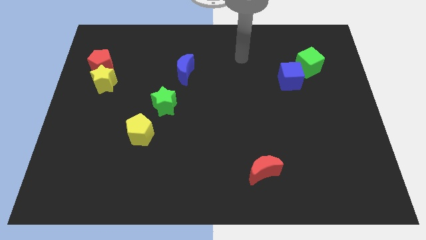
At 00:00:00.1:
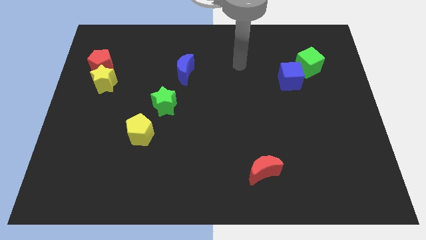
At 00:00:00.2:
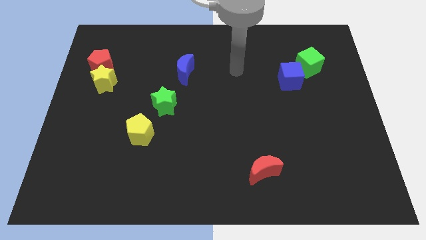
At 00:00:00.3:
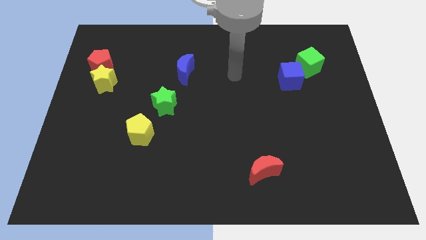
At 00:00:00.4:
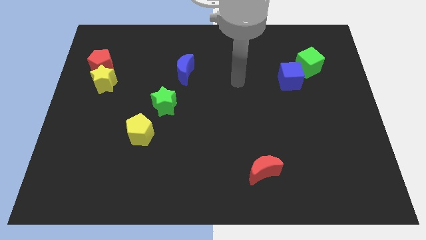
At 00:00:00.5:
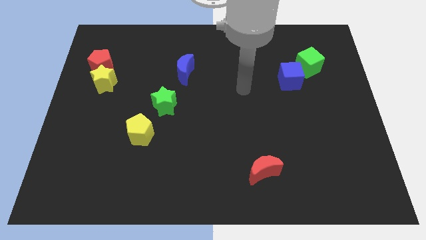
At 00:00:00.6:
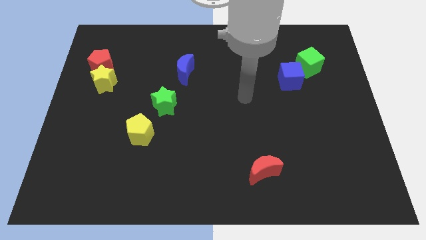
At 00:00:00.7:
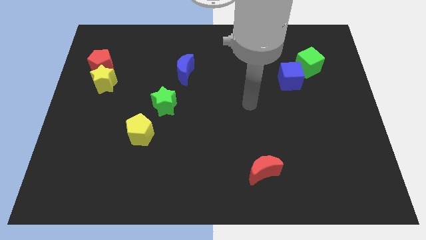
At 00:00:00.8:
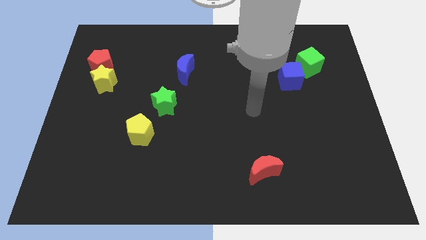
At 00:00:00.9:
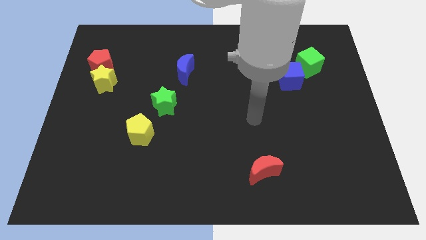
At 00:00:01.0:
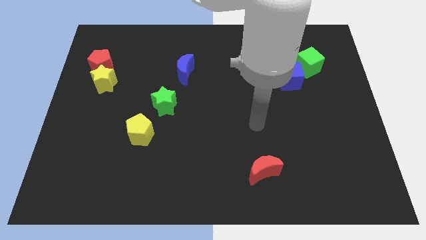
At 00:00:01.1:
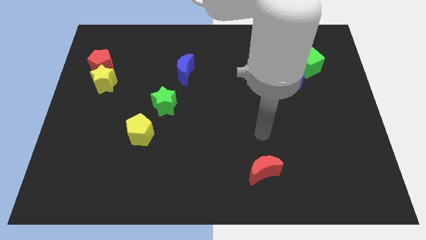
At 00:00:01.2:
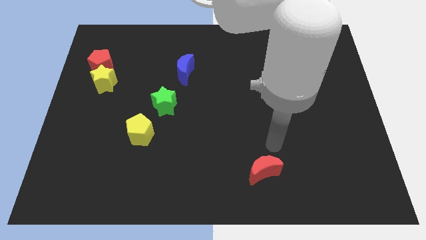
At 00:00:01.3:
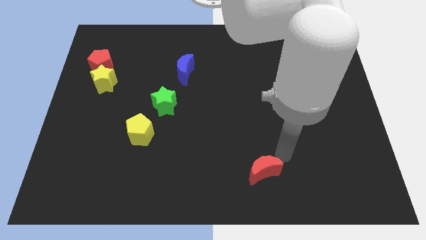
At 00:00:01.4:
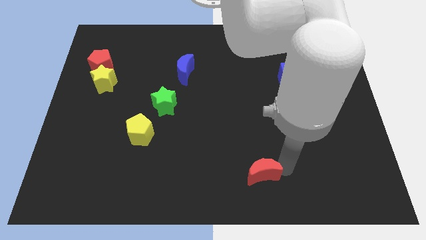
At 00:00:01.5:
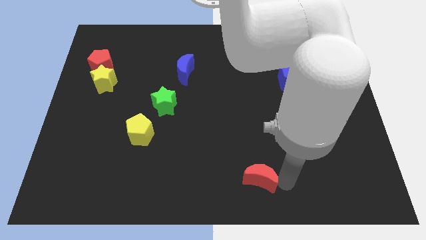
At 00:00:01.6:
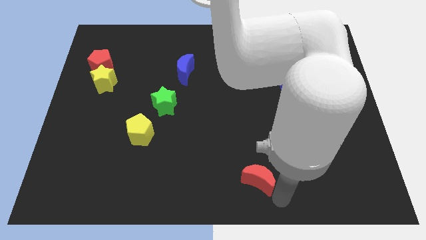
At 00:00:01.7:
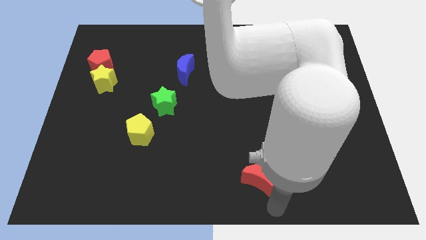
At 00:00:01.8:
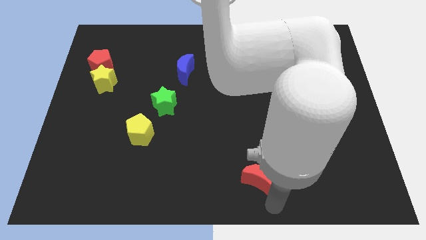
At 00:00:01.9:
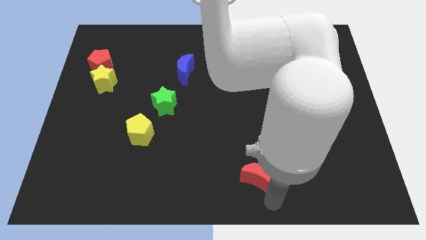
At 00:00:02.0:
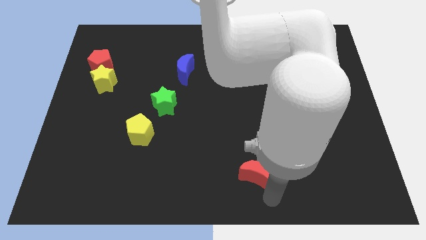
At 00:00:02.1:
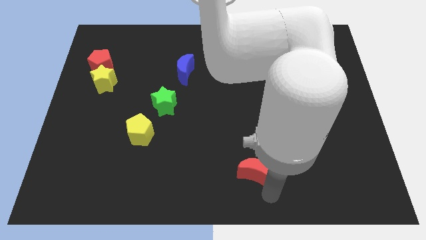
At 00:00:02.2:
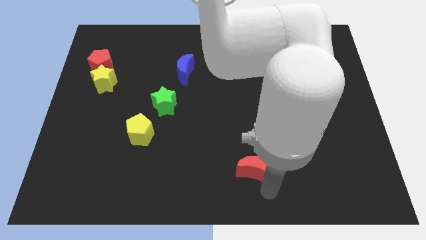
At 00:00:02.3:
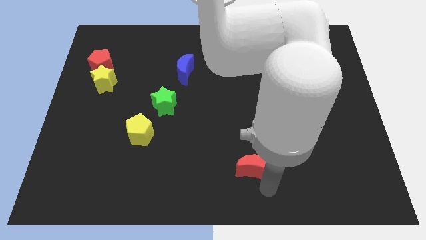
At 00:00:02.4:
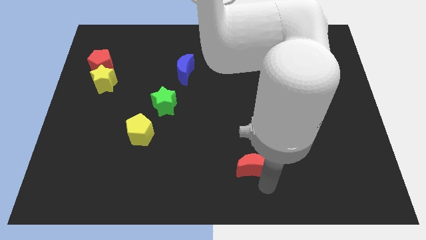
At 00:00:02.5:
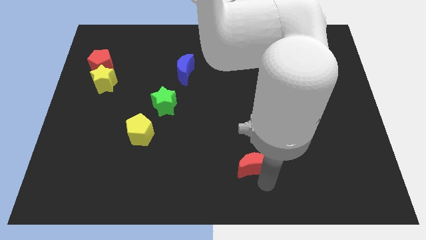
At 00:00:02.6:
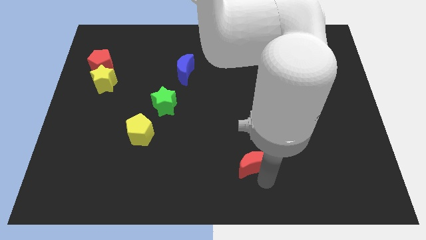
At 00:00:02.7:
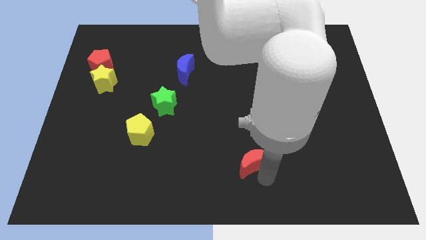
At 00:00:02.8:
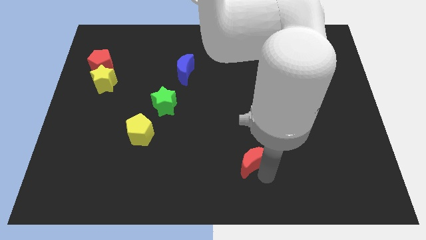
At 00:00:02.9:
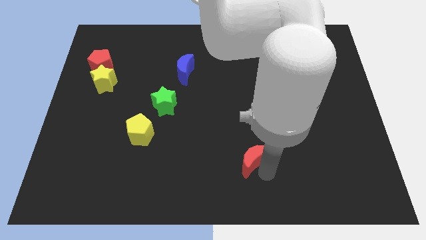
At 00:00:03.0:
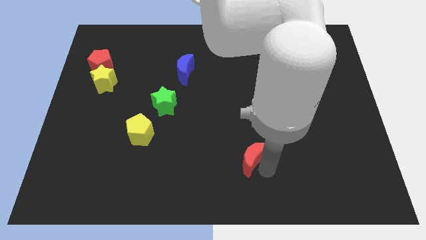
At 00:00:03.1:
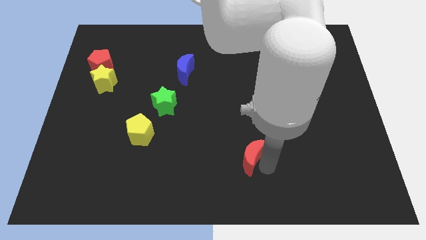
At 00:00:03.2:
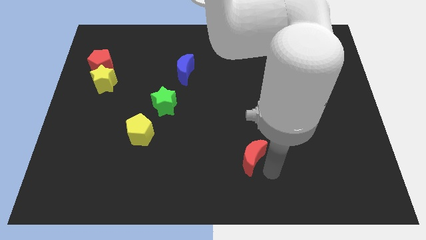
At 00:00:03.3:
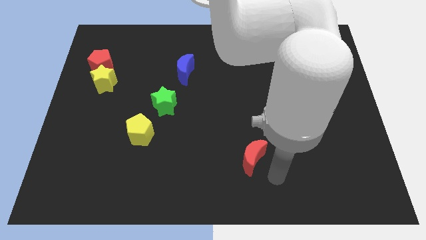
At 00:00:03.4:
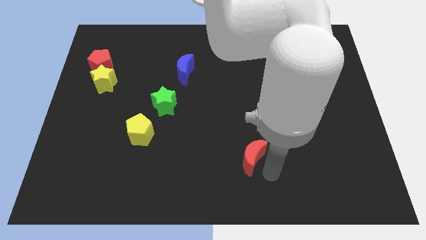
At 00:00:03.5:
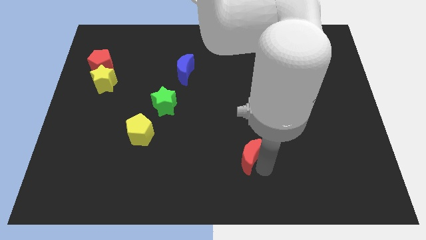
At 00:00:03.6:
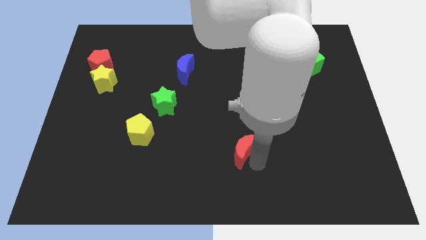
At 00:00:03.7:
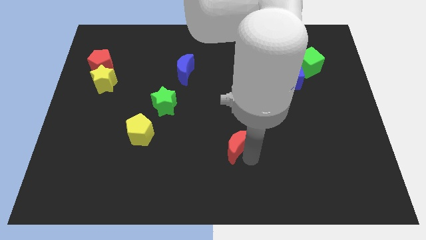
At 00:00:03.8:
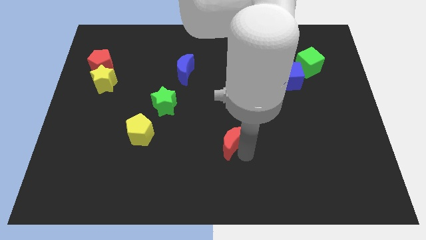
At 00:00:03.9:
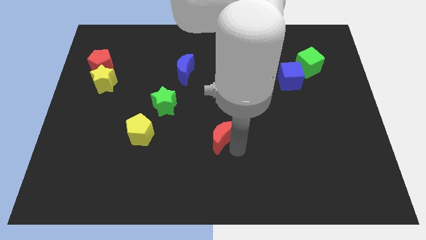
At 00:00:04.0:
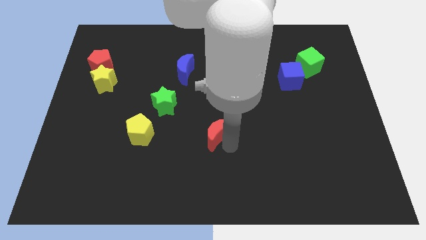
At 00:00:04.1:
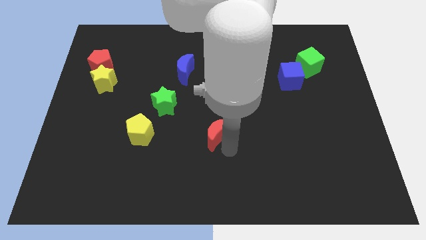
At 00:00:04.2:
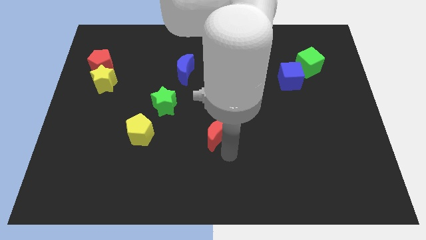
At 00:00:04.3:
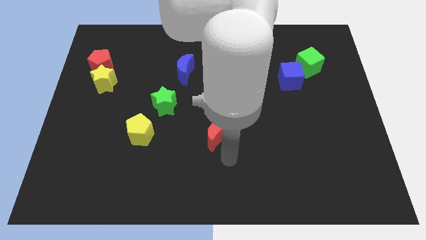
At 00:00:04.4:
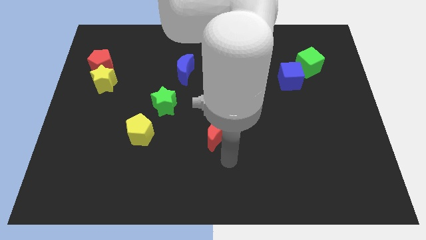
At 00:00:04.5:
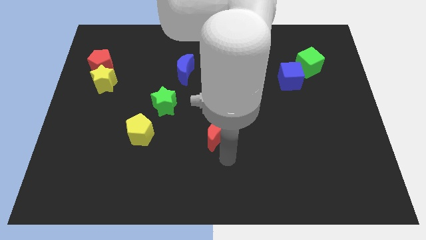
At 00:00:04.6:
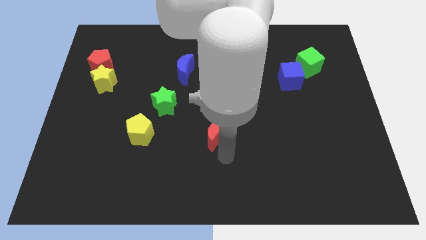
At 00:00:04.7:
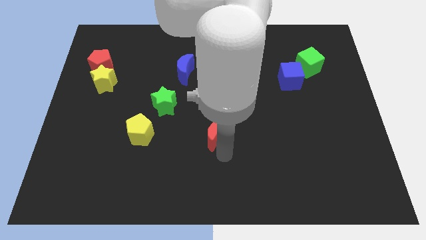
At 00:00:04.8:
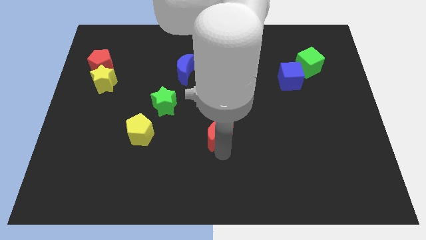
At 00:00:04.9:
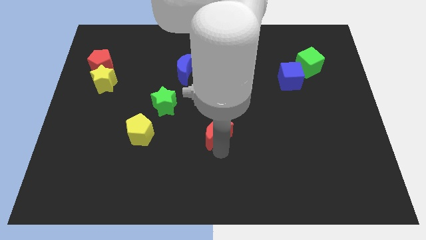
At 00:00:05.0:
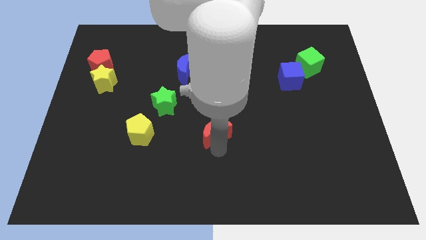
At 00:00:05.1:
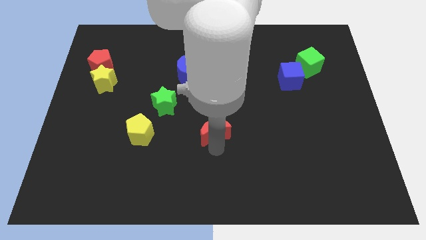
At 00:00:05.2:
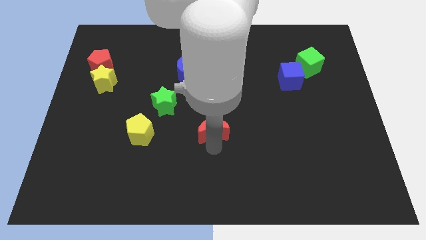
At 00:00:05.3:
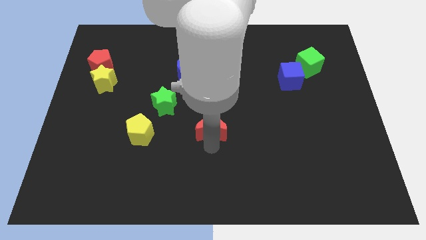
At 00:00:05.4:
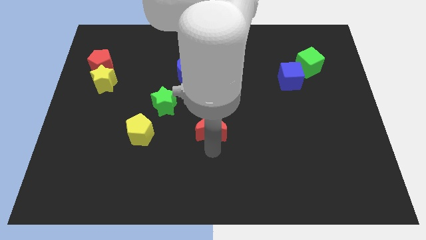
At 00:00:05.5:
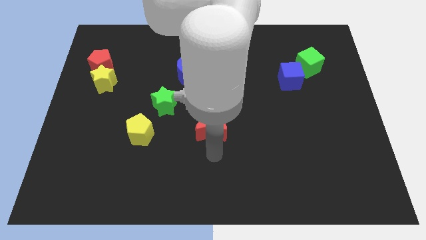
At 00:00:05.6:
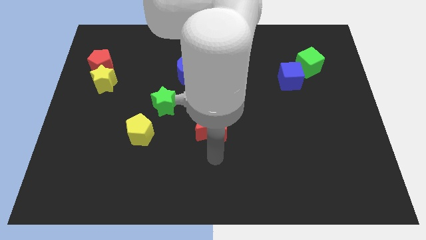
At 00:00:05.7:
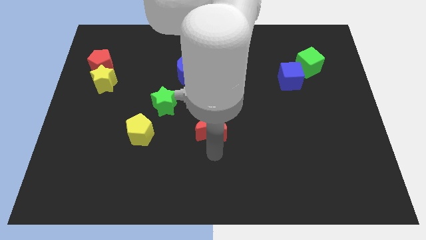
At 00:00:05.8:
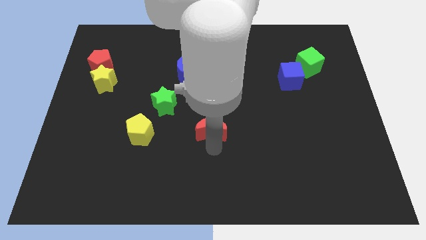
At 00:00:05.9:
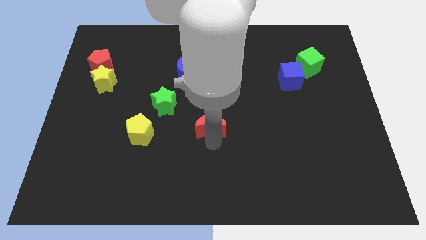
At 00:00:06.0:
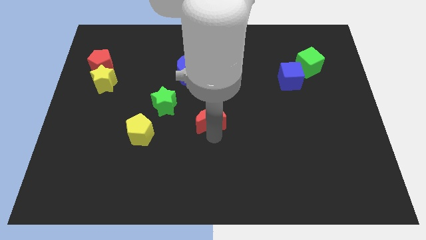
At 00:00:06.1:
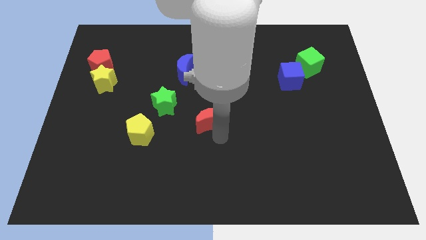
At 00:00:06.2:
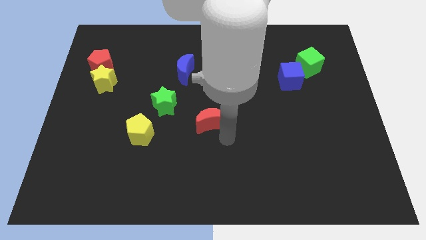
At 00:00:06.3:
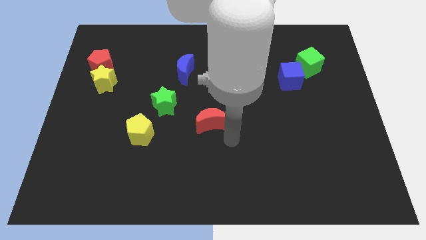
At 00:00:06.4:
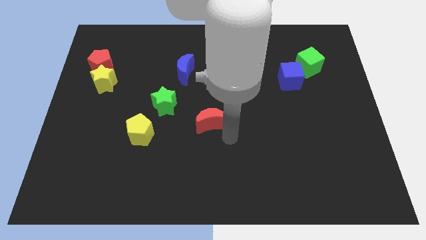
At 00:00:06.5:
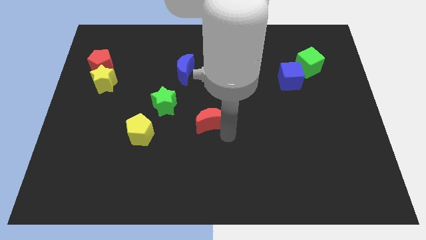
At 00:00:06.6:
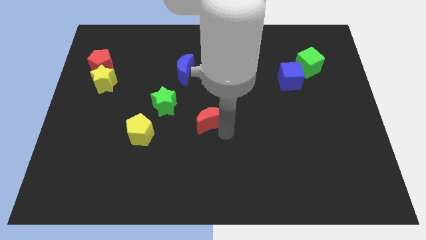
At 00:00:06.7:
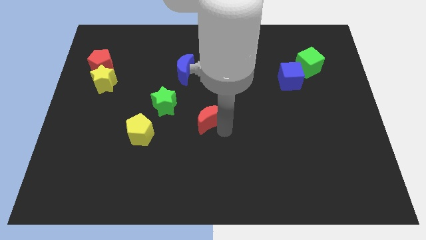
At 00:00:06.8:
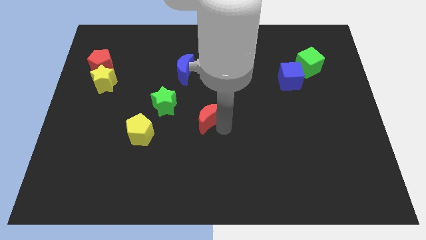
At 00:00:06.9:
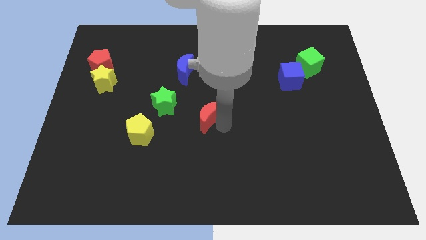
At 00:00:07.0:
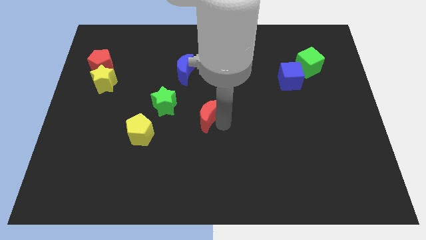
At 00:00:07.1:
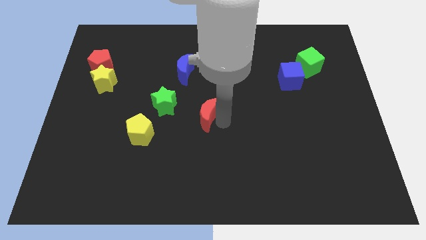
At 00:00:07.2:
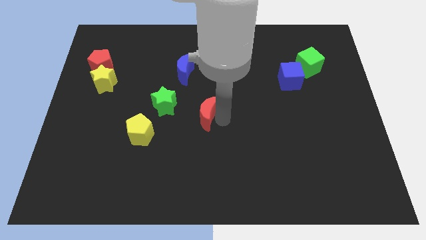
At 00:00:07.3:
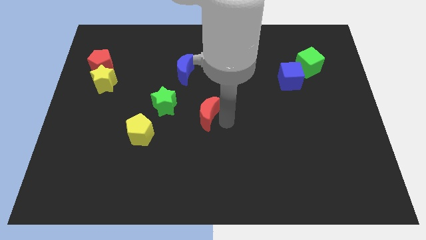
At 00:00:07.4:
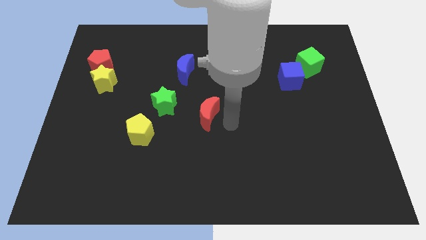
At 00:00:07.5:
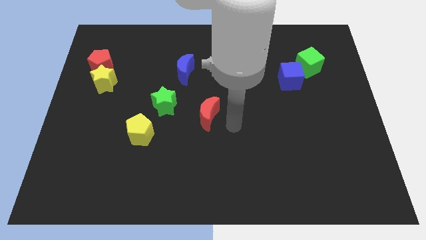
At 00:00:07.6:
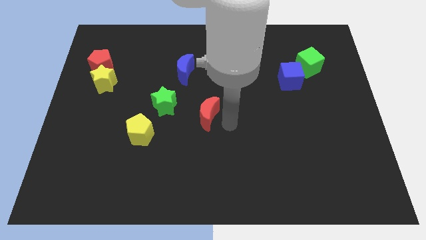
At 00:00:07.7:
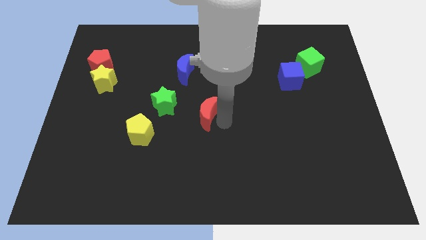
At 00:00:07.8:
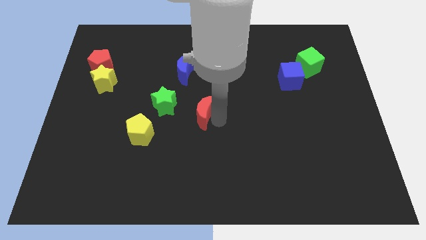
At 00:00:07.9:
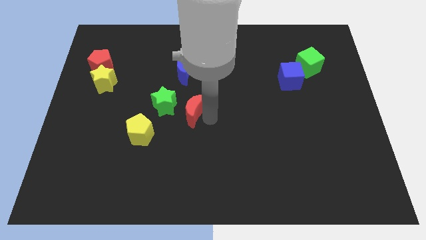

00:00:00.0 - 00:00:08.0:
move the red moon diagonally up and left
